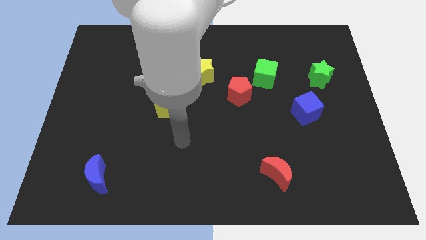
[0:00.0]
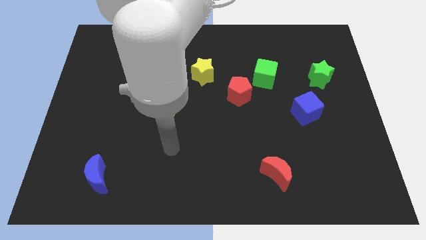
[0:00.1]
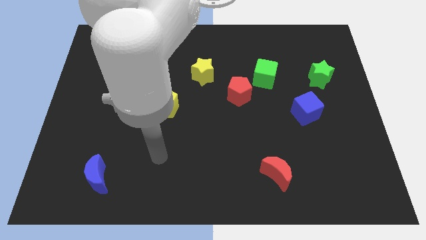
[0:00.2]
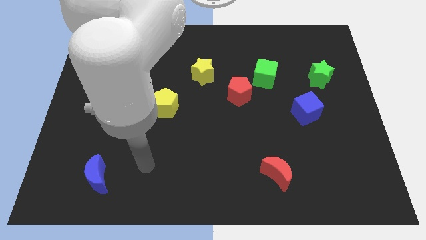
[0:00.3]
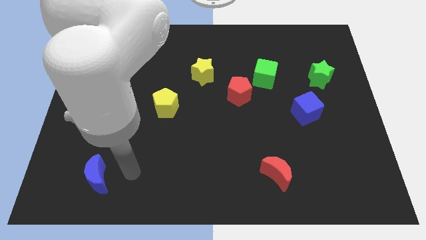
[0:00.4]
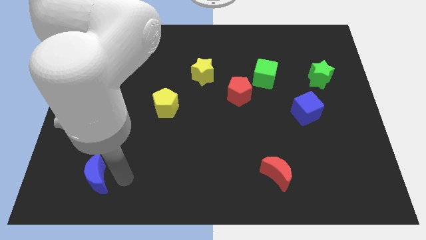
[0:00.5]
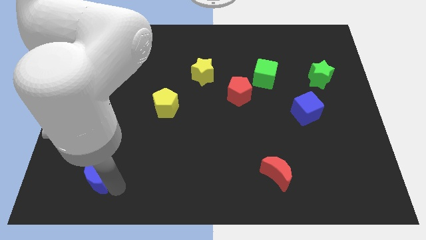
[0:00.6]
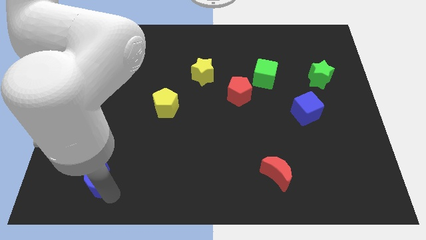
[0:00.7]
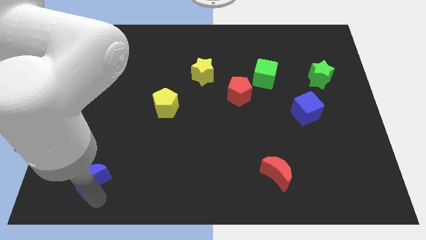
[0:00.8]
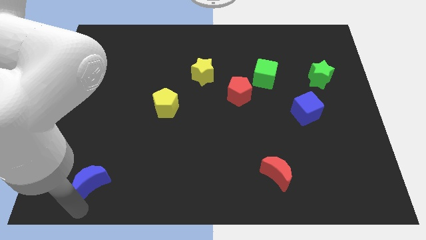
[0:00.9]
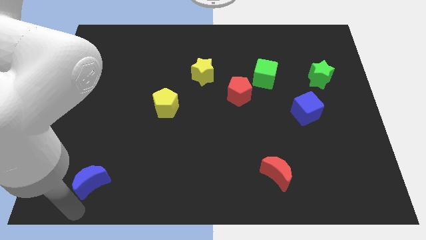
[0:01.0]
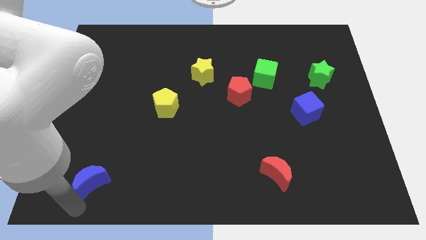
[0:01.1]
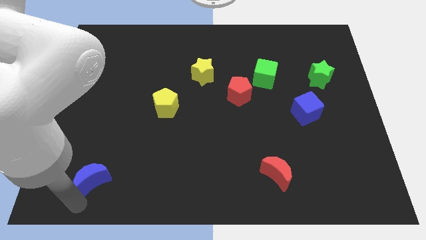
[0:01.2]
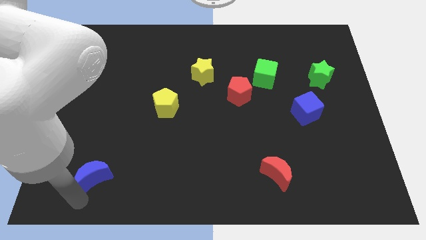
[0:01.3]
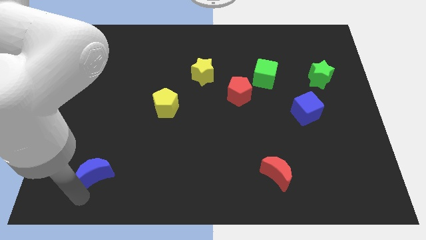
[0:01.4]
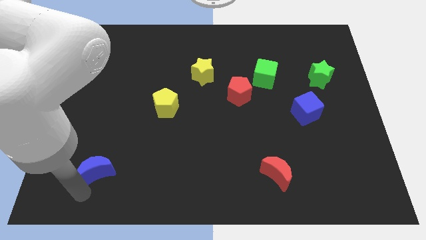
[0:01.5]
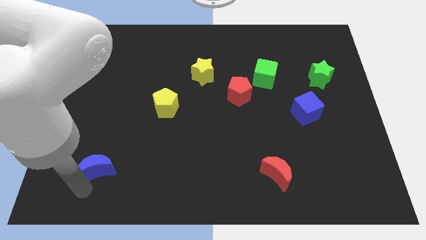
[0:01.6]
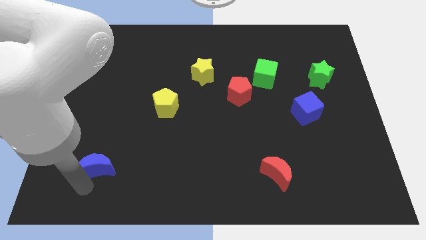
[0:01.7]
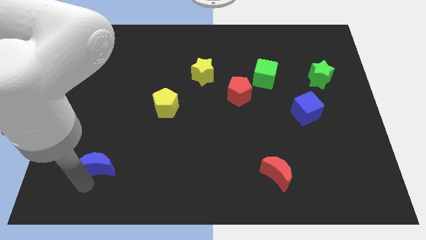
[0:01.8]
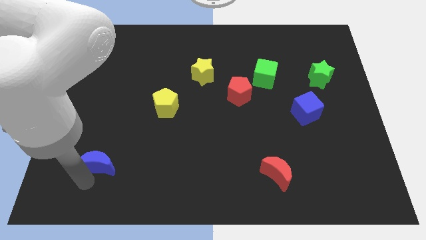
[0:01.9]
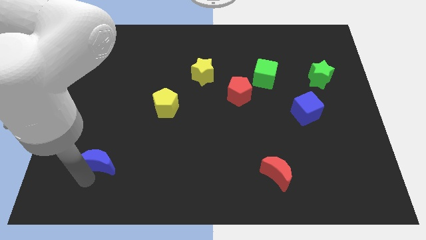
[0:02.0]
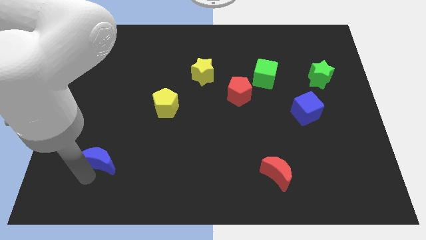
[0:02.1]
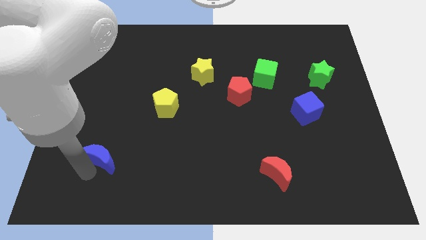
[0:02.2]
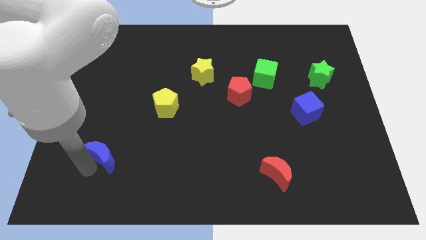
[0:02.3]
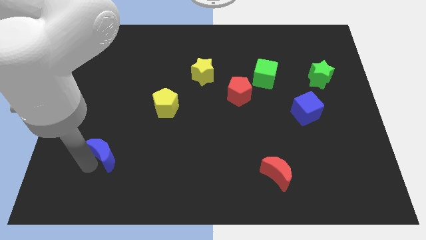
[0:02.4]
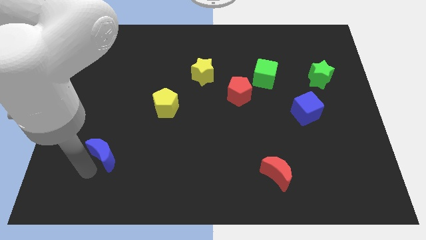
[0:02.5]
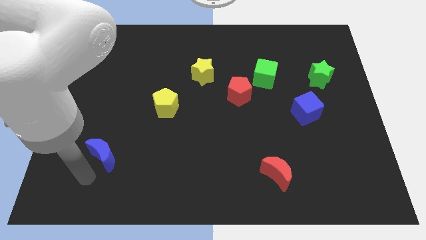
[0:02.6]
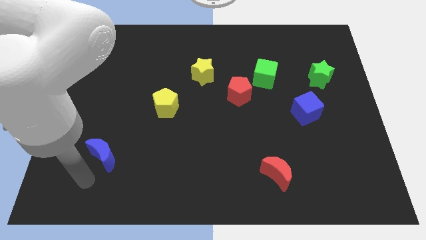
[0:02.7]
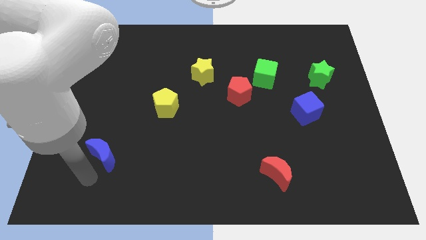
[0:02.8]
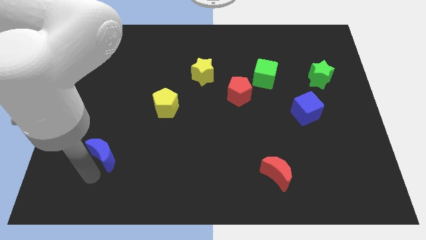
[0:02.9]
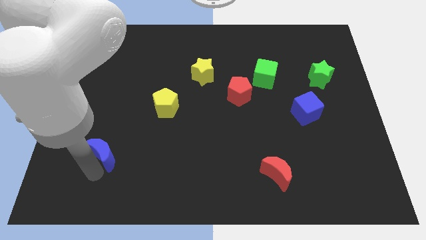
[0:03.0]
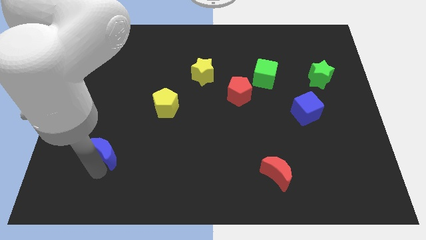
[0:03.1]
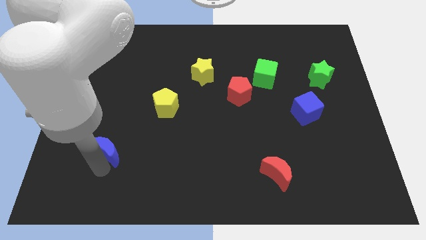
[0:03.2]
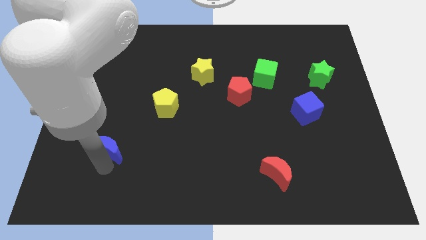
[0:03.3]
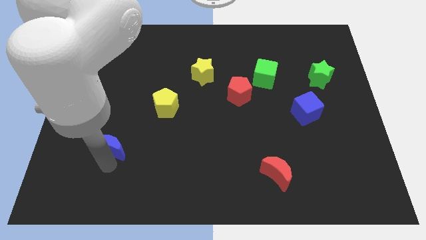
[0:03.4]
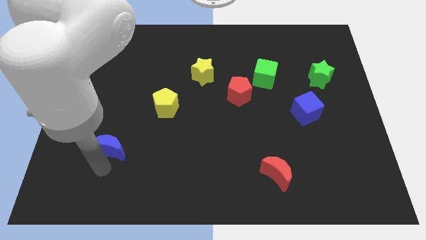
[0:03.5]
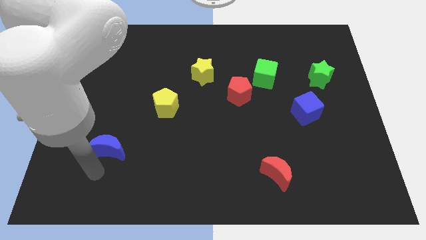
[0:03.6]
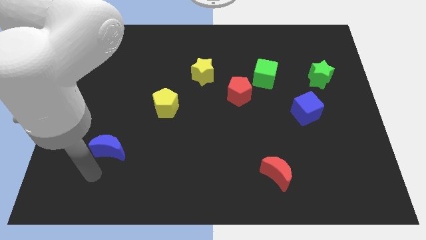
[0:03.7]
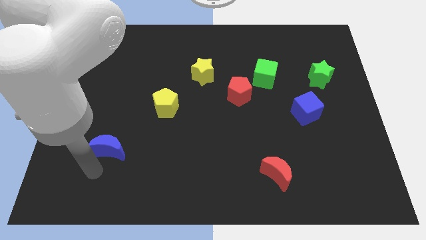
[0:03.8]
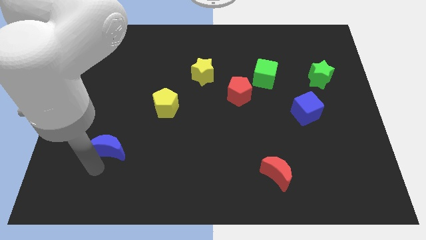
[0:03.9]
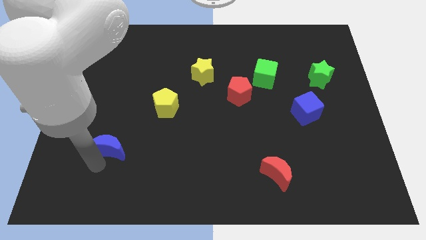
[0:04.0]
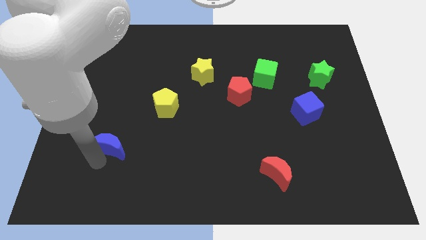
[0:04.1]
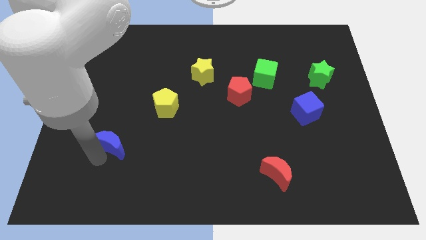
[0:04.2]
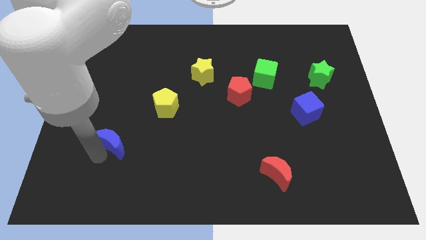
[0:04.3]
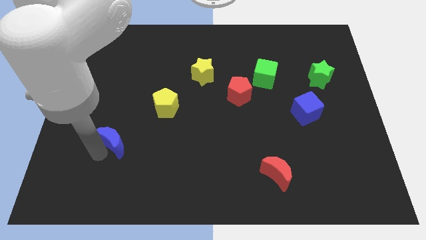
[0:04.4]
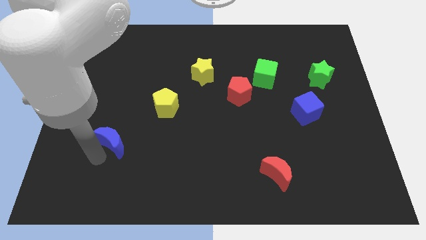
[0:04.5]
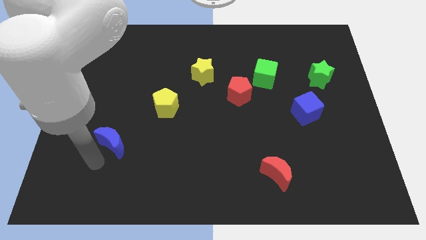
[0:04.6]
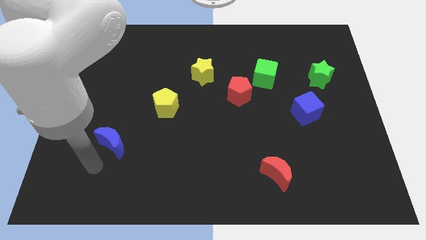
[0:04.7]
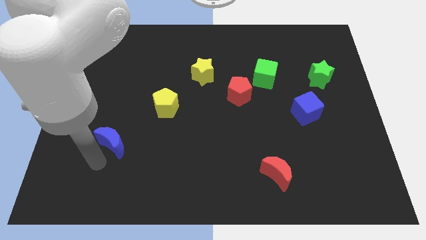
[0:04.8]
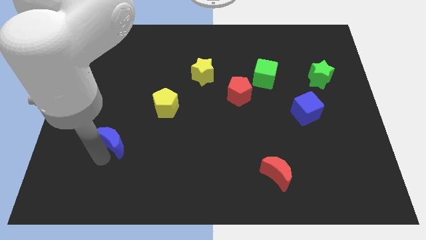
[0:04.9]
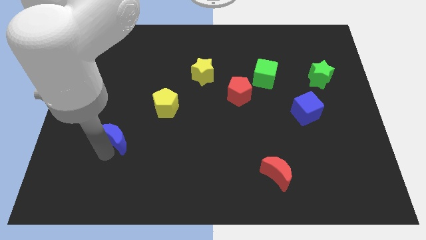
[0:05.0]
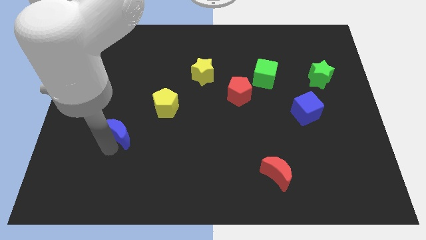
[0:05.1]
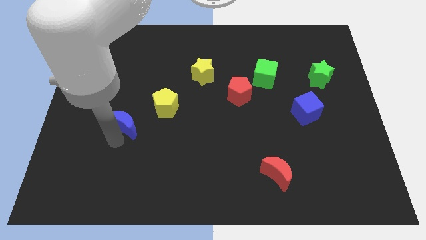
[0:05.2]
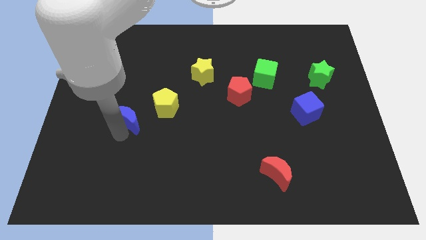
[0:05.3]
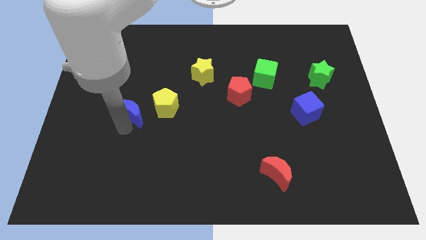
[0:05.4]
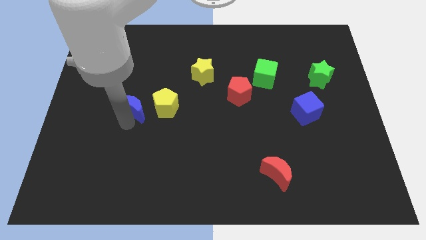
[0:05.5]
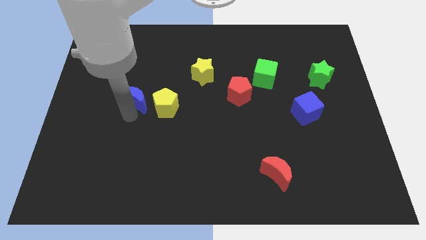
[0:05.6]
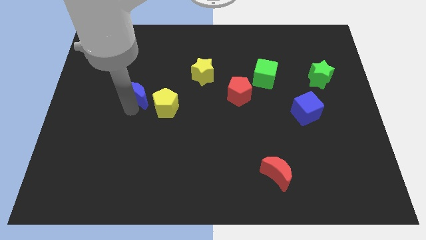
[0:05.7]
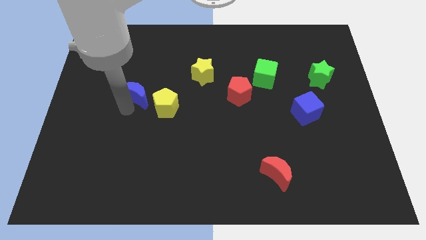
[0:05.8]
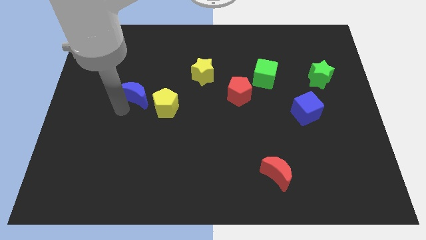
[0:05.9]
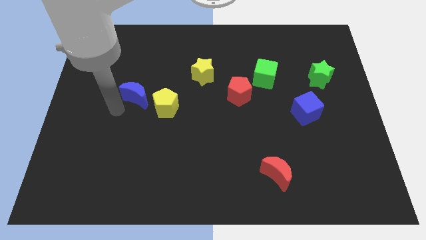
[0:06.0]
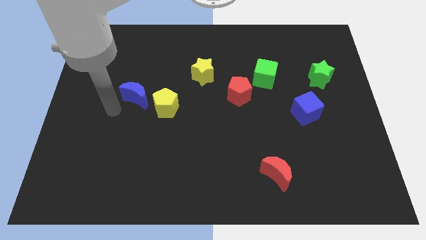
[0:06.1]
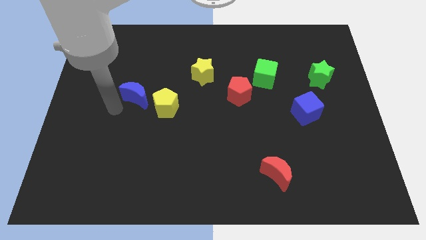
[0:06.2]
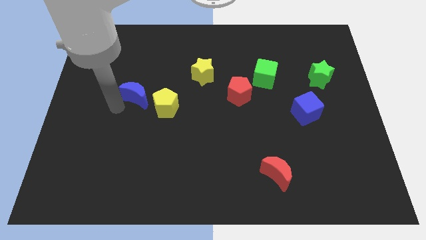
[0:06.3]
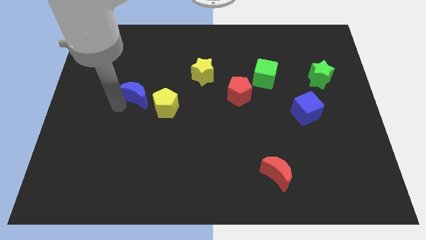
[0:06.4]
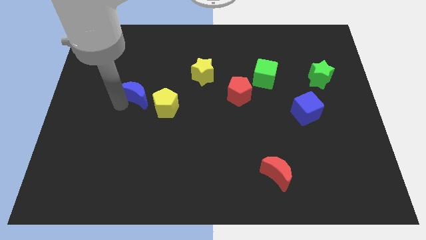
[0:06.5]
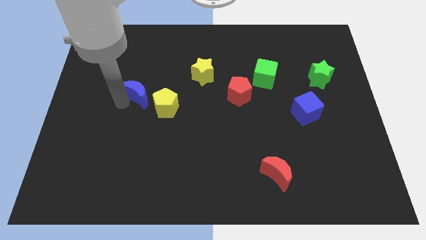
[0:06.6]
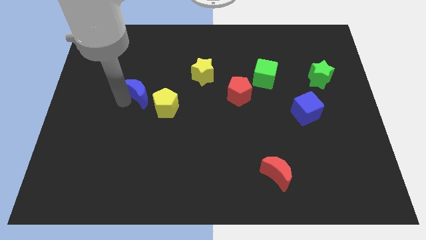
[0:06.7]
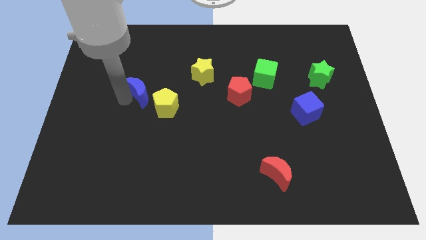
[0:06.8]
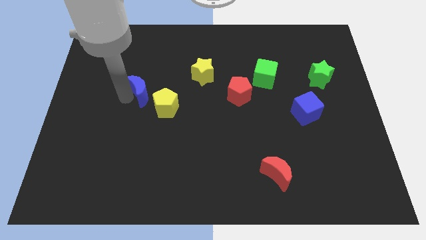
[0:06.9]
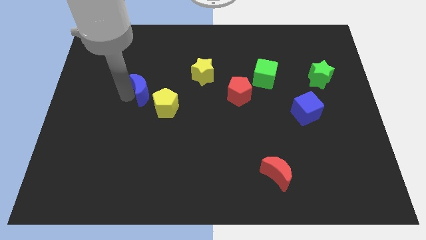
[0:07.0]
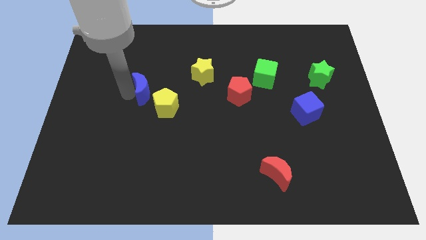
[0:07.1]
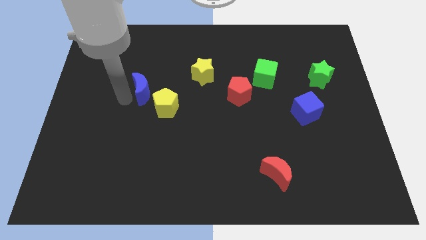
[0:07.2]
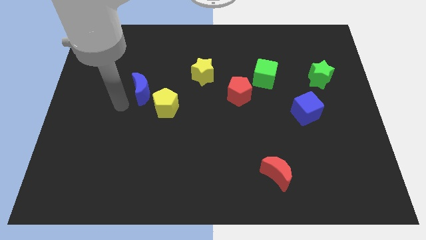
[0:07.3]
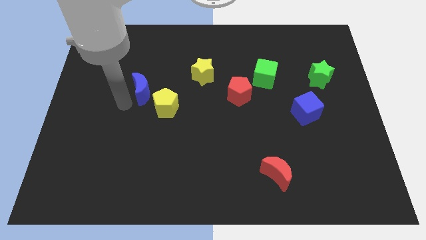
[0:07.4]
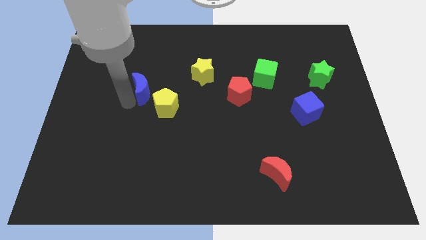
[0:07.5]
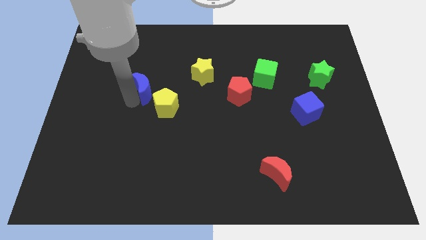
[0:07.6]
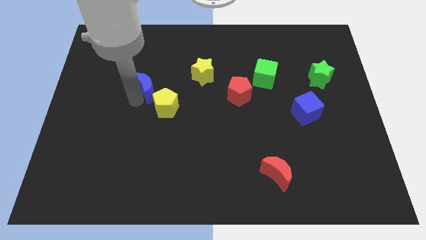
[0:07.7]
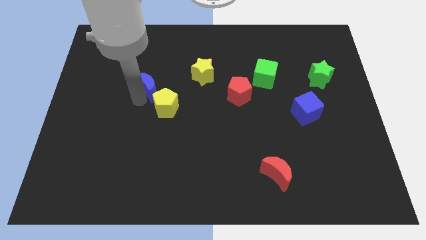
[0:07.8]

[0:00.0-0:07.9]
put the blue moon to the top of the yellow pentagon
